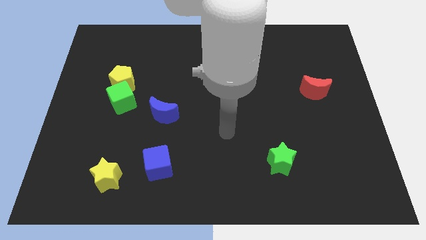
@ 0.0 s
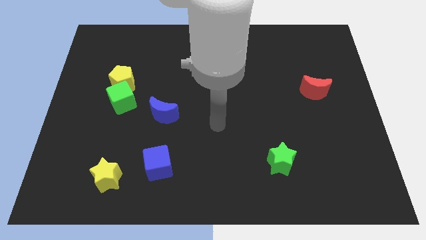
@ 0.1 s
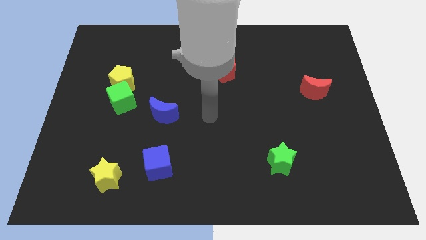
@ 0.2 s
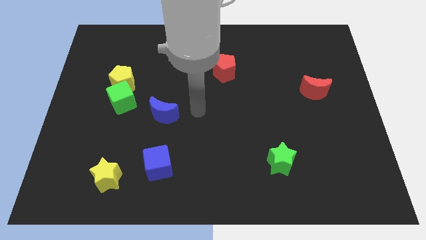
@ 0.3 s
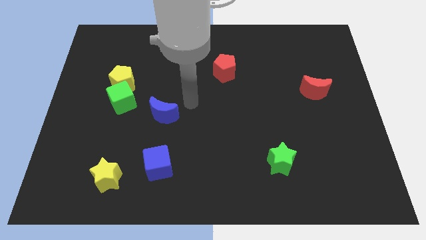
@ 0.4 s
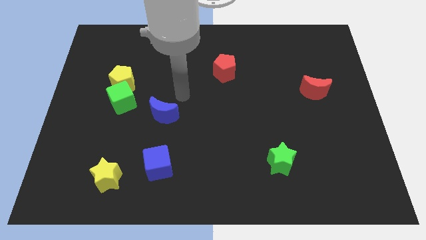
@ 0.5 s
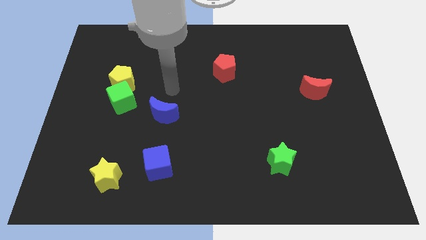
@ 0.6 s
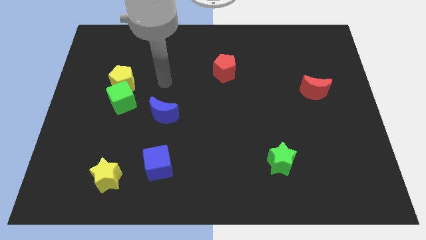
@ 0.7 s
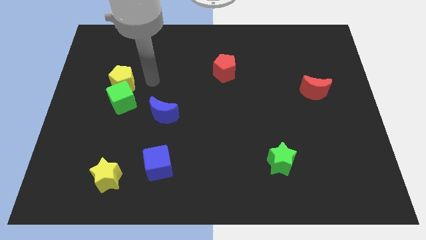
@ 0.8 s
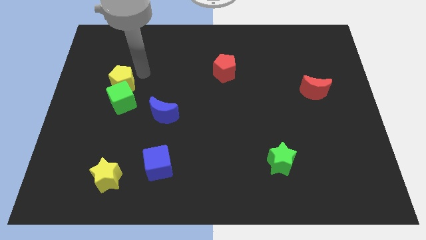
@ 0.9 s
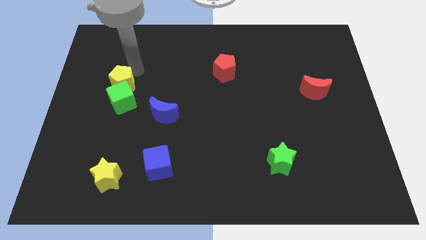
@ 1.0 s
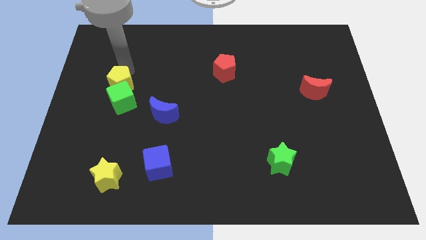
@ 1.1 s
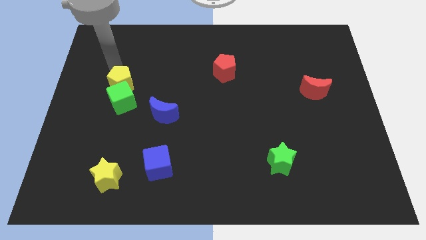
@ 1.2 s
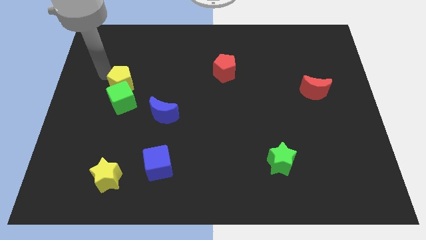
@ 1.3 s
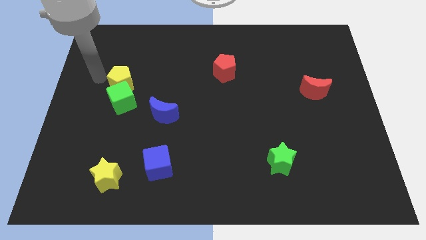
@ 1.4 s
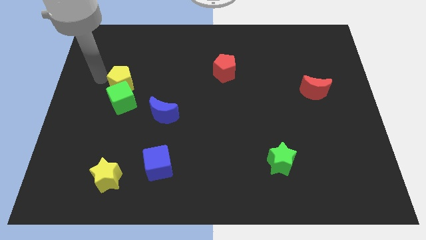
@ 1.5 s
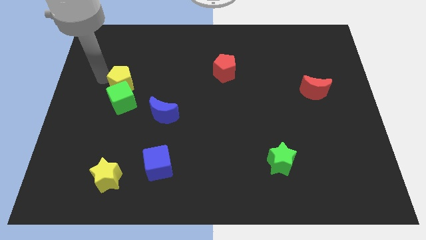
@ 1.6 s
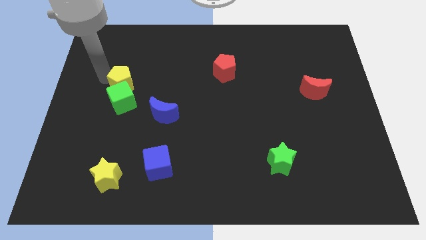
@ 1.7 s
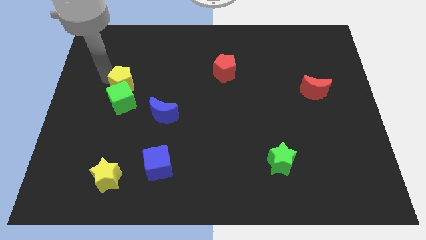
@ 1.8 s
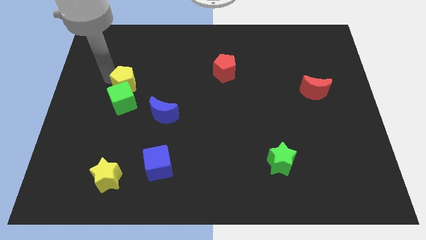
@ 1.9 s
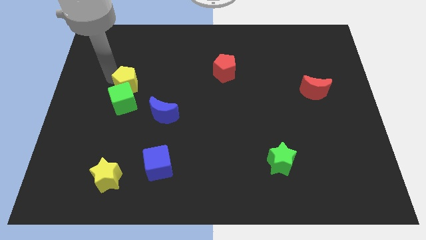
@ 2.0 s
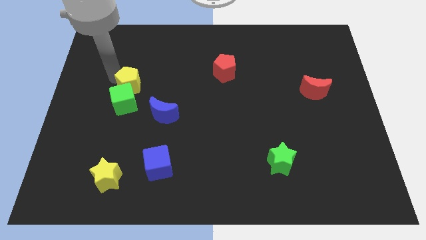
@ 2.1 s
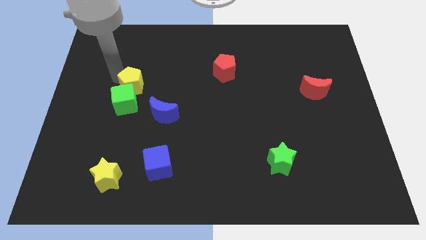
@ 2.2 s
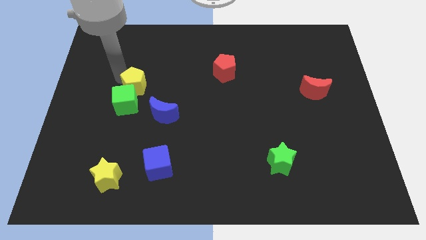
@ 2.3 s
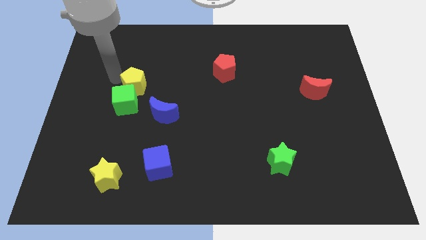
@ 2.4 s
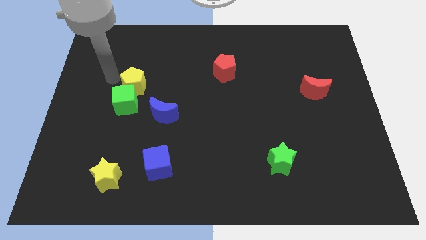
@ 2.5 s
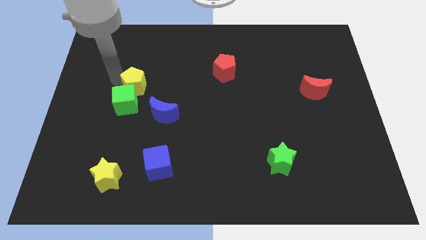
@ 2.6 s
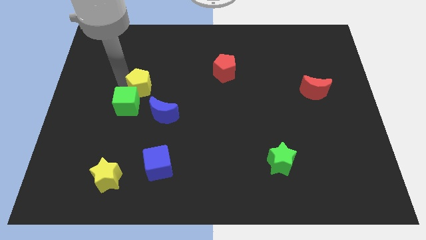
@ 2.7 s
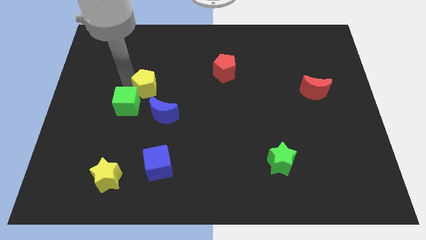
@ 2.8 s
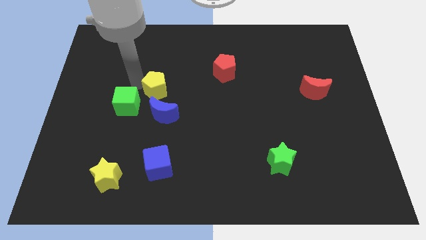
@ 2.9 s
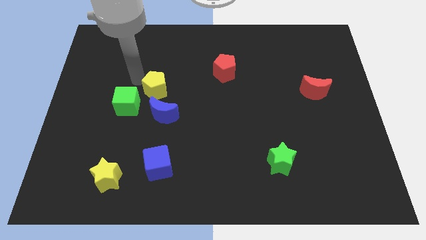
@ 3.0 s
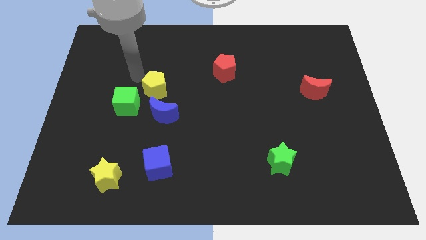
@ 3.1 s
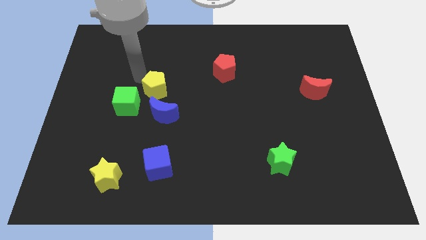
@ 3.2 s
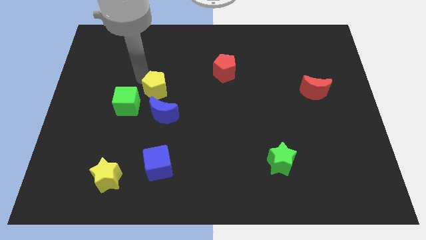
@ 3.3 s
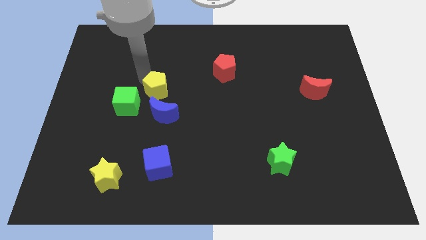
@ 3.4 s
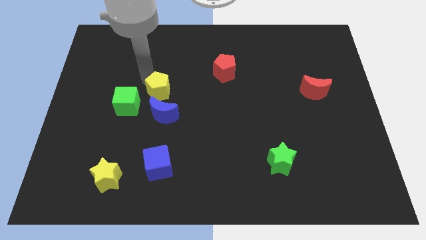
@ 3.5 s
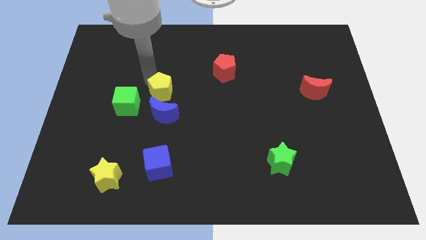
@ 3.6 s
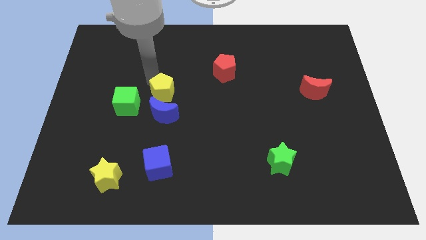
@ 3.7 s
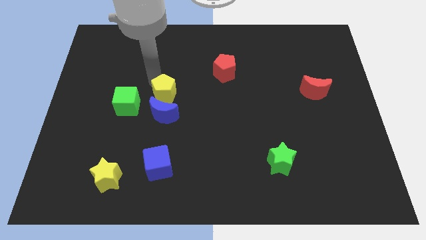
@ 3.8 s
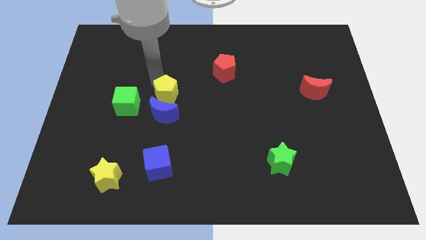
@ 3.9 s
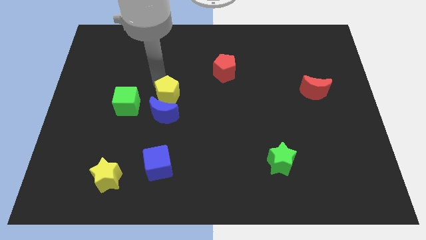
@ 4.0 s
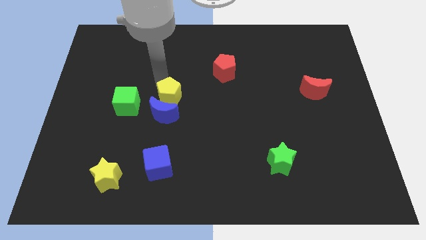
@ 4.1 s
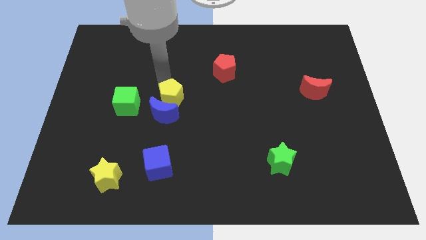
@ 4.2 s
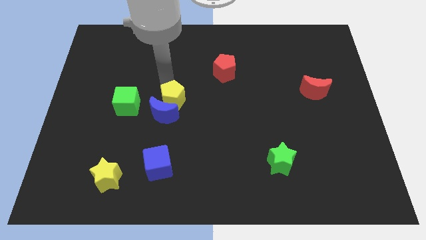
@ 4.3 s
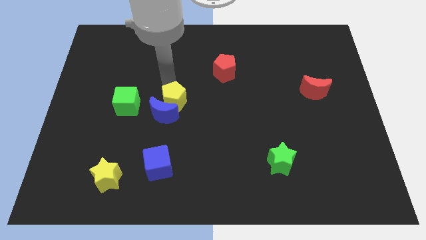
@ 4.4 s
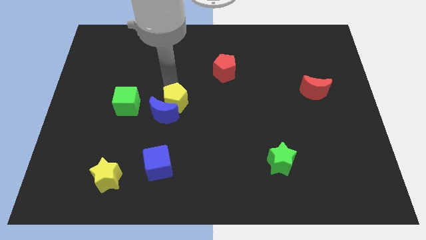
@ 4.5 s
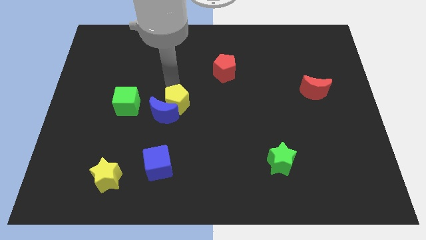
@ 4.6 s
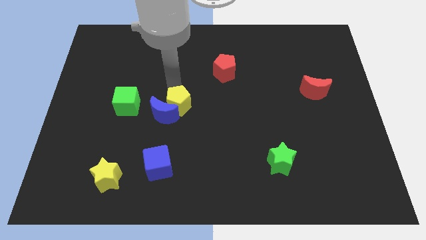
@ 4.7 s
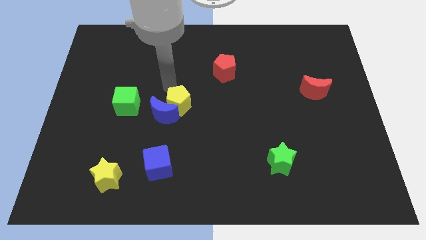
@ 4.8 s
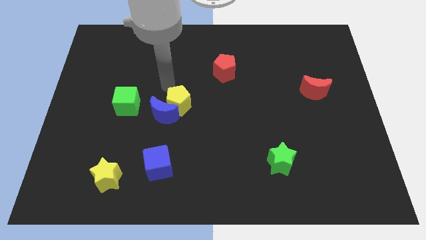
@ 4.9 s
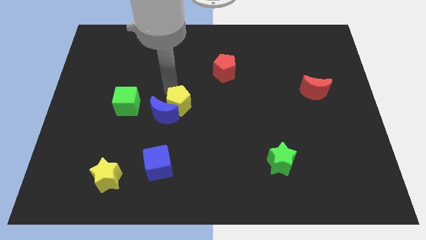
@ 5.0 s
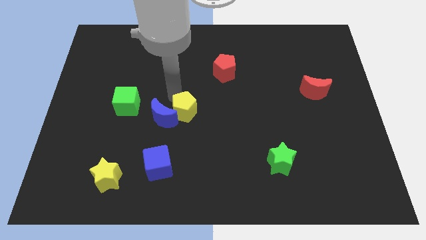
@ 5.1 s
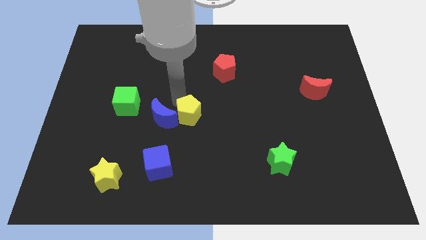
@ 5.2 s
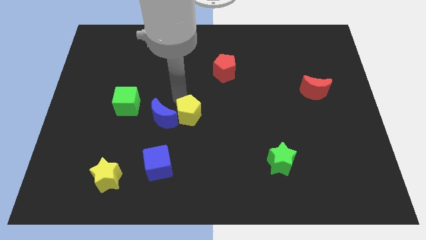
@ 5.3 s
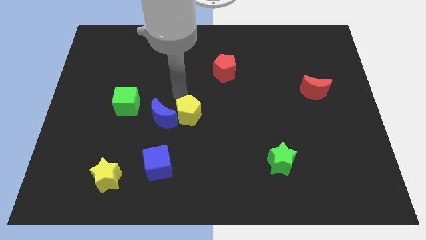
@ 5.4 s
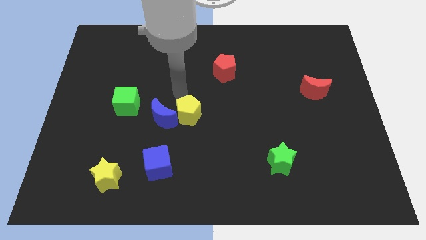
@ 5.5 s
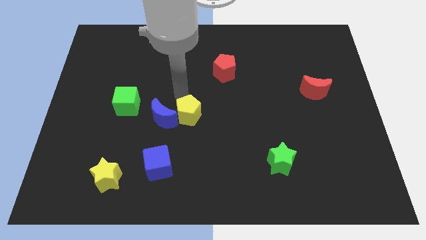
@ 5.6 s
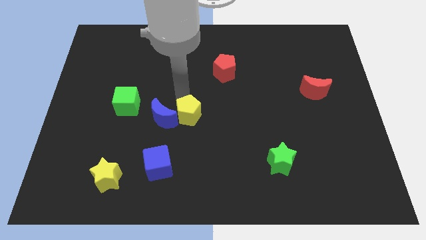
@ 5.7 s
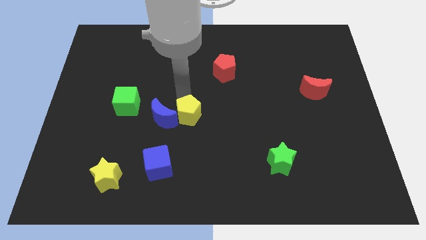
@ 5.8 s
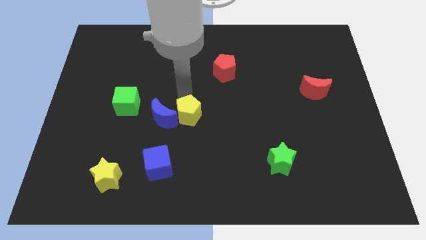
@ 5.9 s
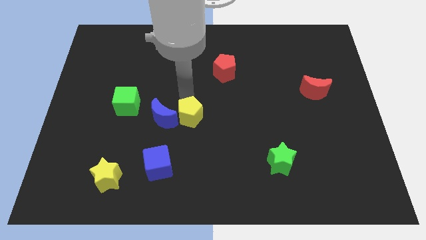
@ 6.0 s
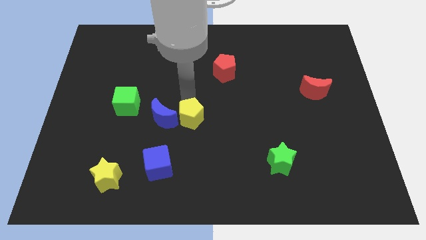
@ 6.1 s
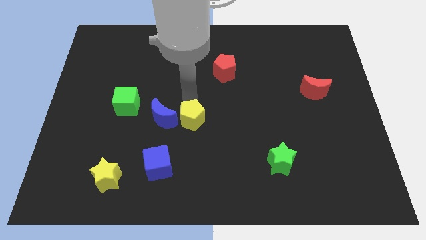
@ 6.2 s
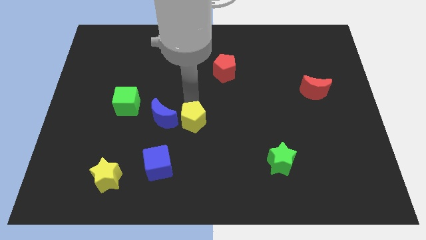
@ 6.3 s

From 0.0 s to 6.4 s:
slide the yellow pentagon downwards and right

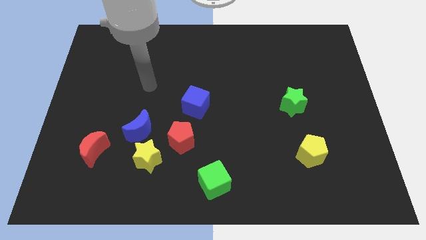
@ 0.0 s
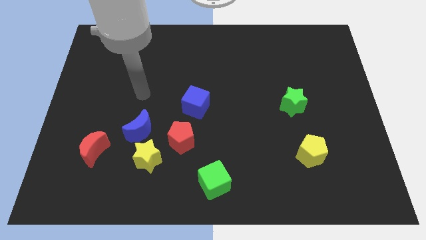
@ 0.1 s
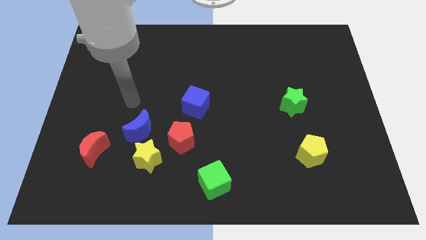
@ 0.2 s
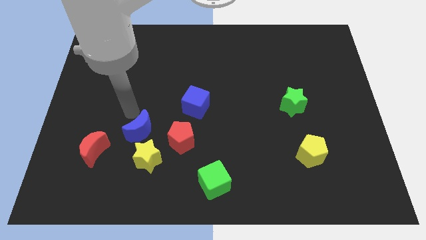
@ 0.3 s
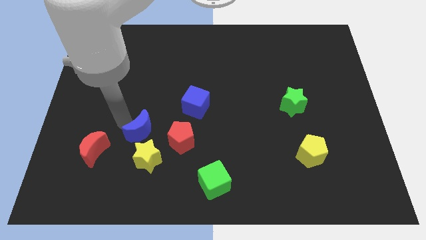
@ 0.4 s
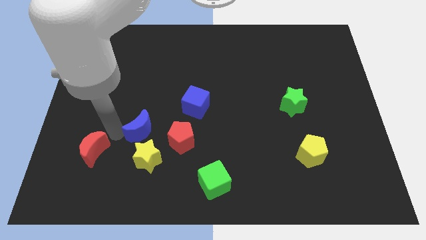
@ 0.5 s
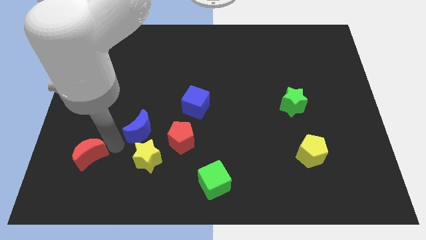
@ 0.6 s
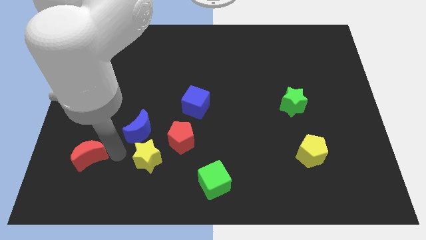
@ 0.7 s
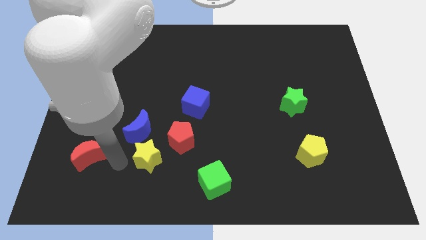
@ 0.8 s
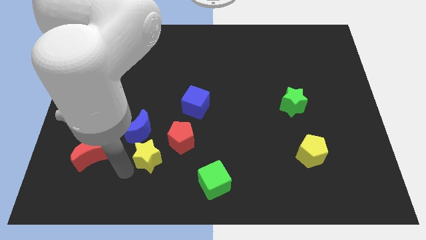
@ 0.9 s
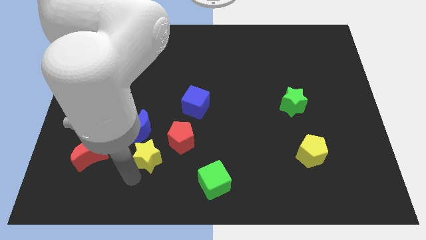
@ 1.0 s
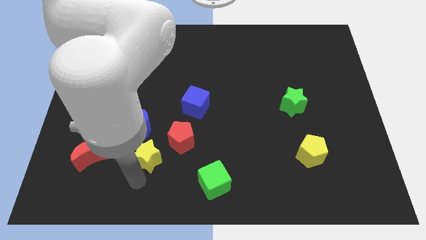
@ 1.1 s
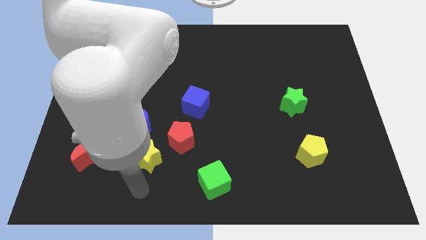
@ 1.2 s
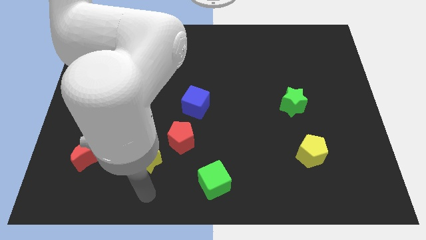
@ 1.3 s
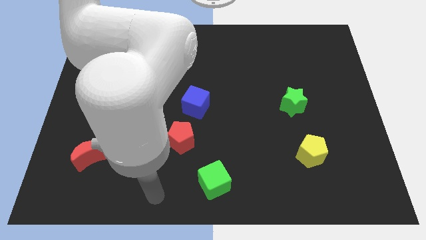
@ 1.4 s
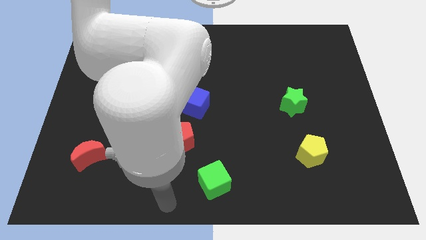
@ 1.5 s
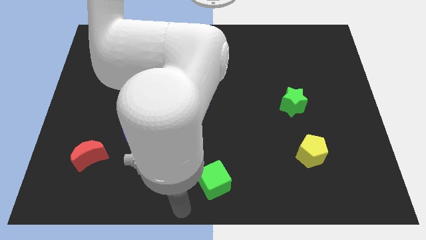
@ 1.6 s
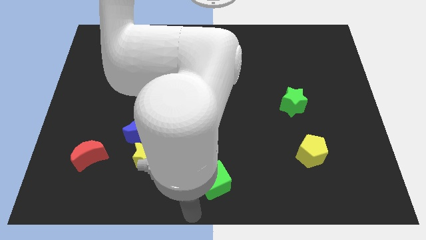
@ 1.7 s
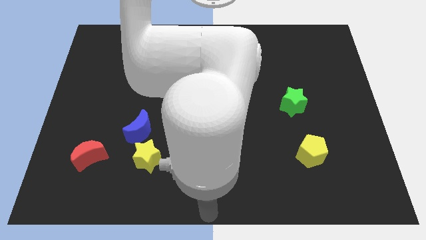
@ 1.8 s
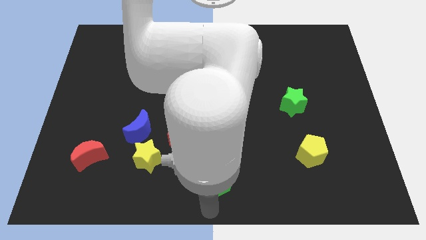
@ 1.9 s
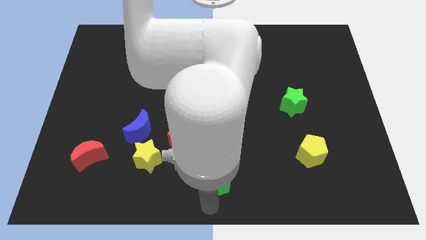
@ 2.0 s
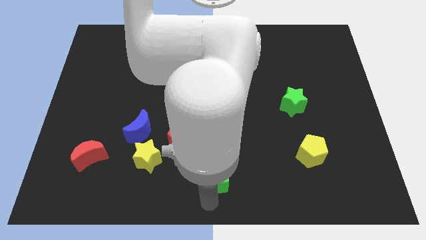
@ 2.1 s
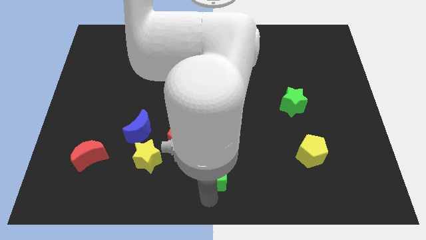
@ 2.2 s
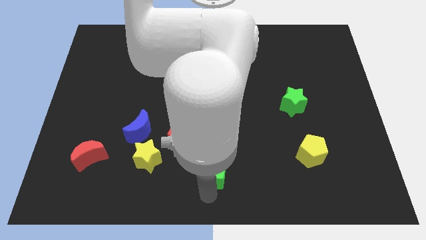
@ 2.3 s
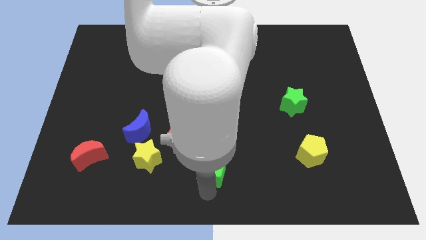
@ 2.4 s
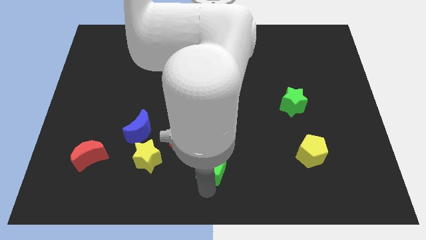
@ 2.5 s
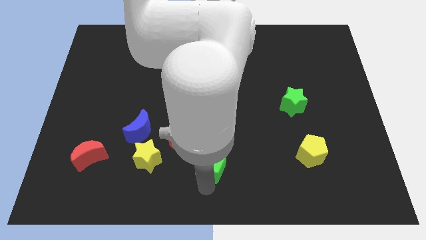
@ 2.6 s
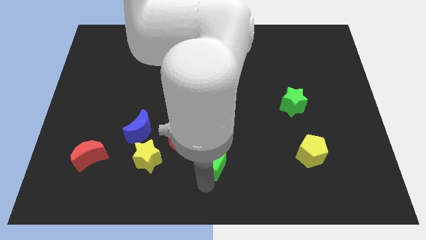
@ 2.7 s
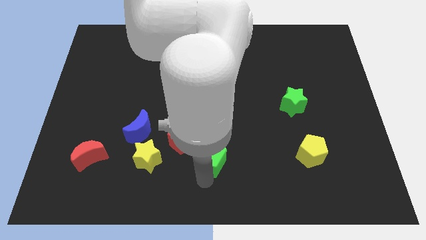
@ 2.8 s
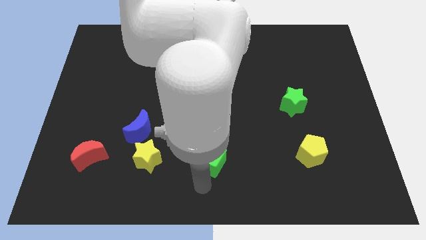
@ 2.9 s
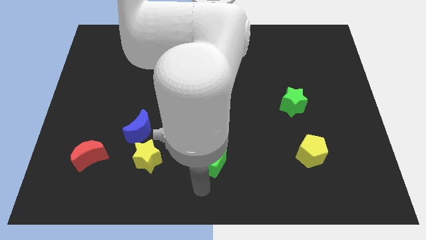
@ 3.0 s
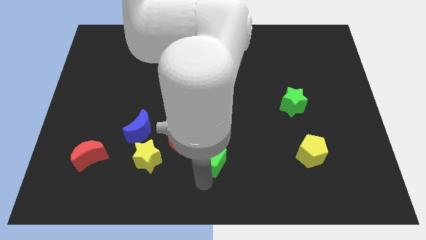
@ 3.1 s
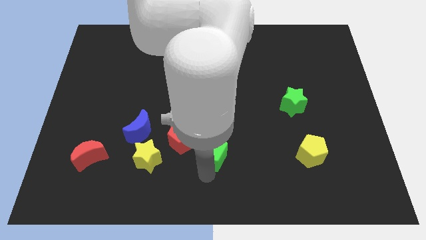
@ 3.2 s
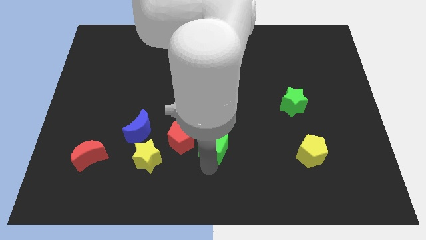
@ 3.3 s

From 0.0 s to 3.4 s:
move the green cube up slightly
